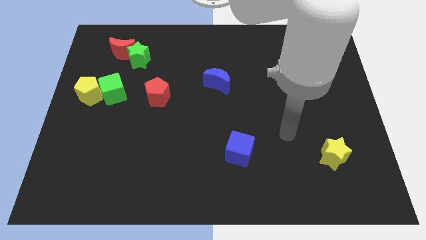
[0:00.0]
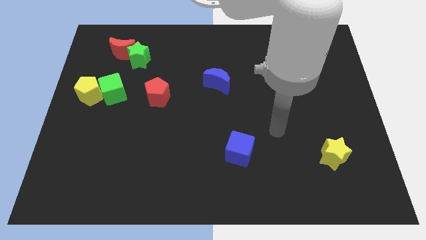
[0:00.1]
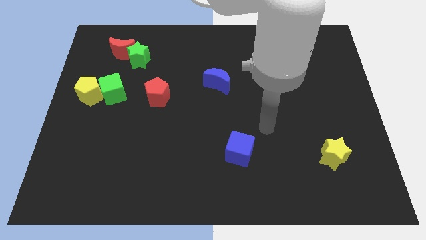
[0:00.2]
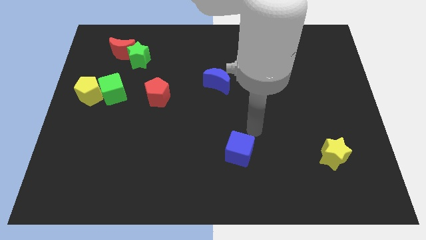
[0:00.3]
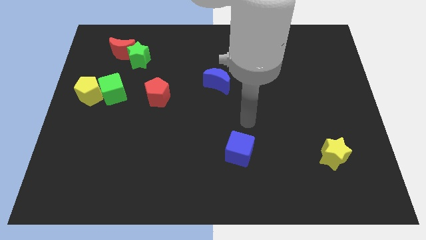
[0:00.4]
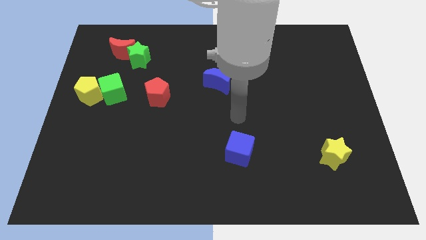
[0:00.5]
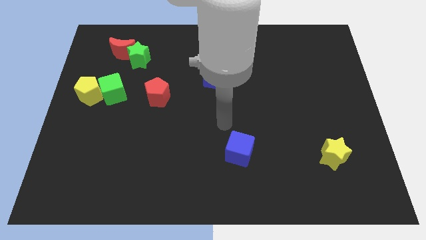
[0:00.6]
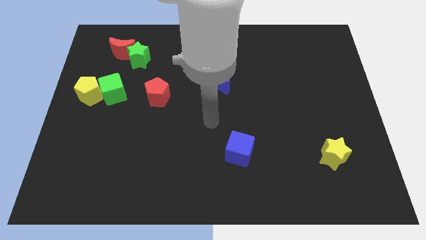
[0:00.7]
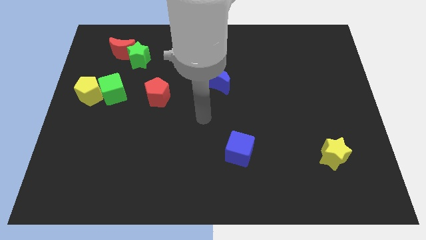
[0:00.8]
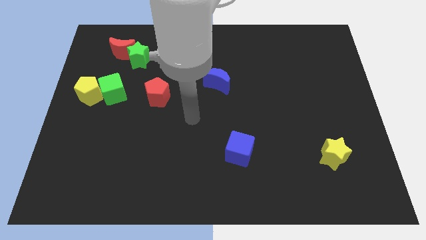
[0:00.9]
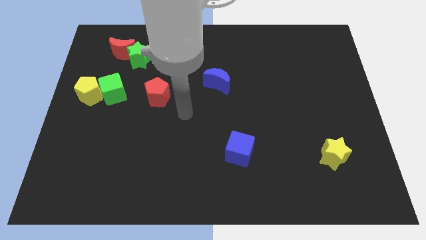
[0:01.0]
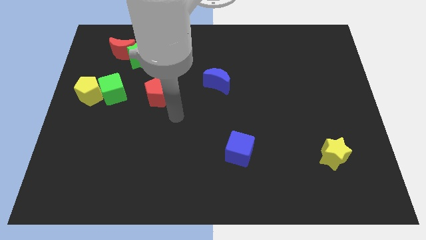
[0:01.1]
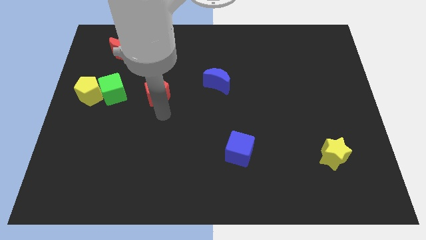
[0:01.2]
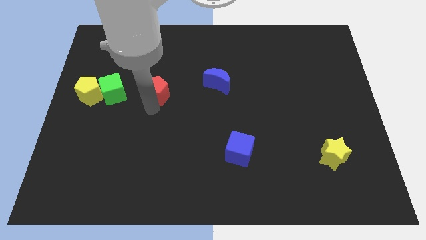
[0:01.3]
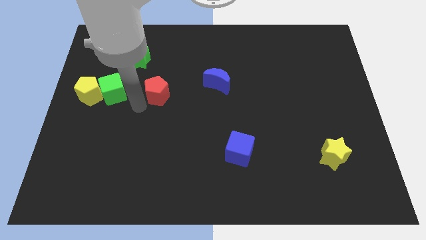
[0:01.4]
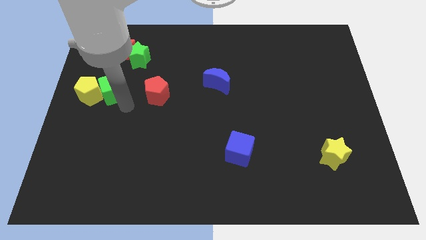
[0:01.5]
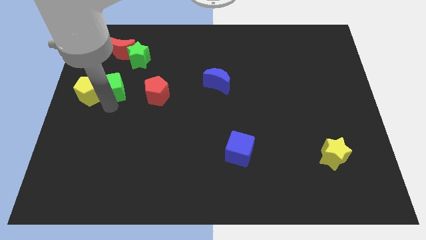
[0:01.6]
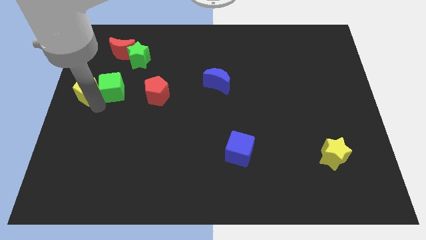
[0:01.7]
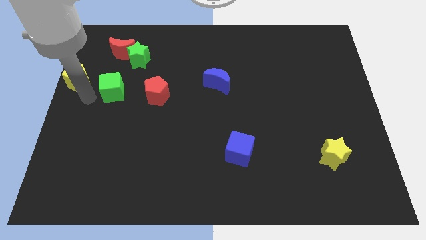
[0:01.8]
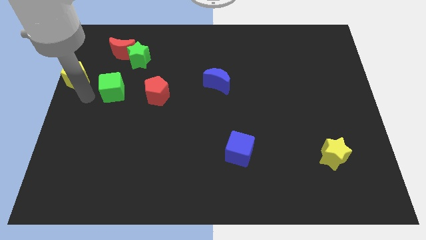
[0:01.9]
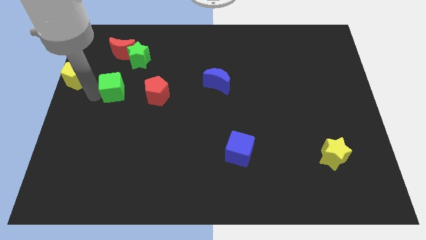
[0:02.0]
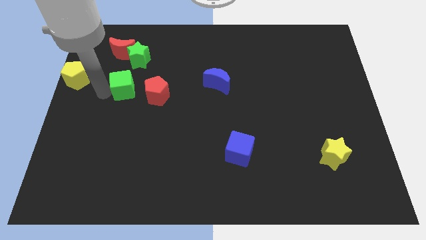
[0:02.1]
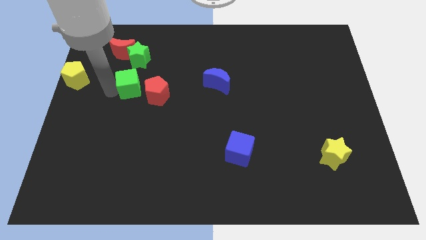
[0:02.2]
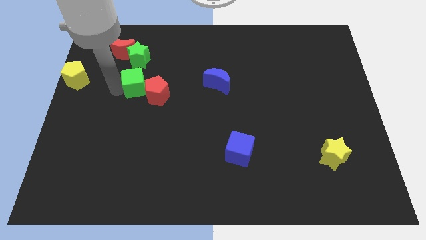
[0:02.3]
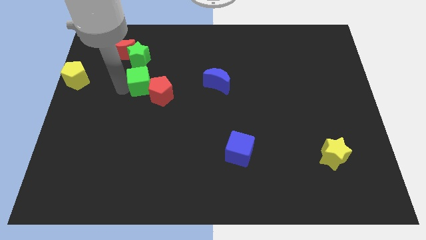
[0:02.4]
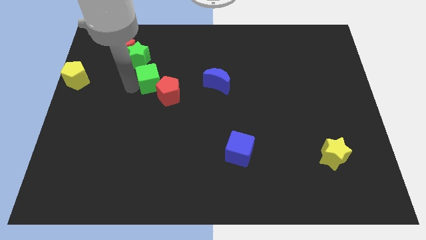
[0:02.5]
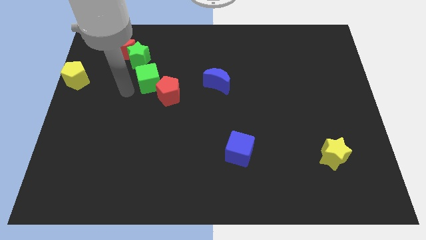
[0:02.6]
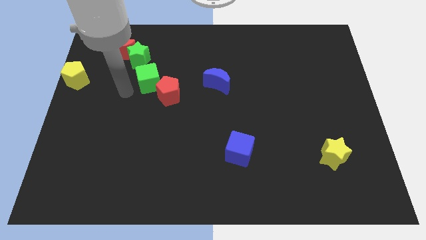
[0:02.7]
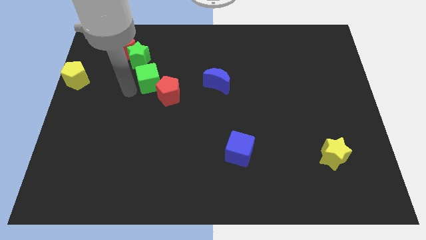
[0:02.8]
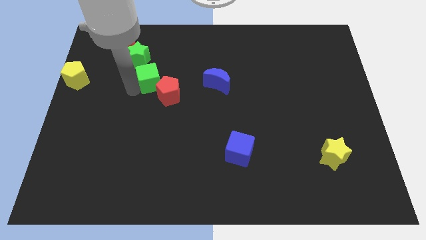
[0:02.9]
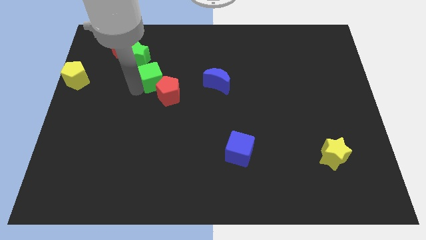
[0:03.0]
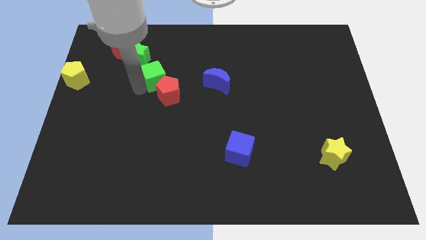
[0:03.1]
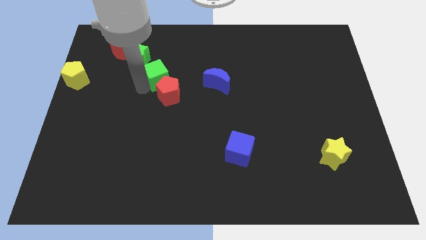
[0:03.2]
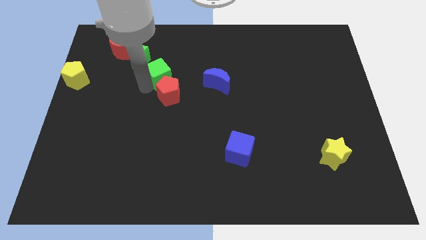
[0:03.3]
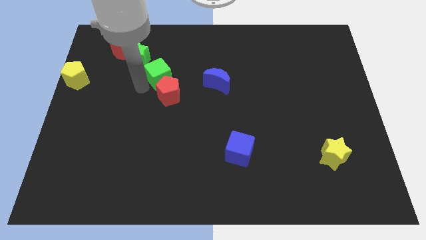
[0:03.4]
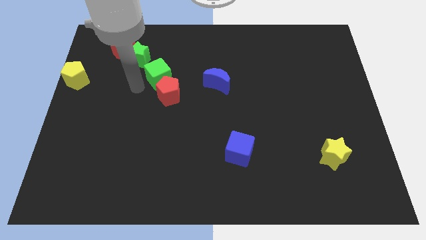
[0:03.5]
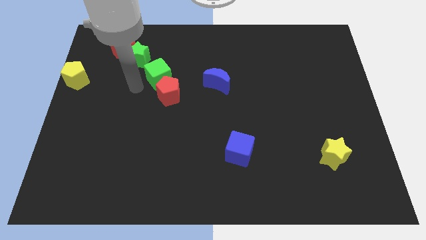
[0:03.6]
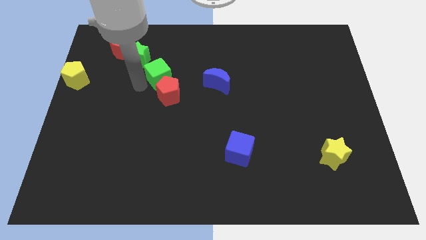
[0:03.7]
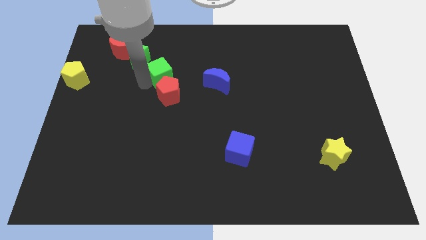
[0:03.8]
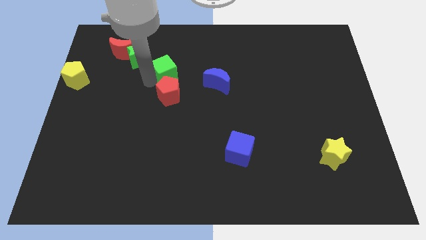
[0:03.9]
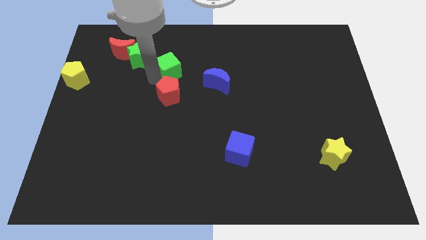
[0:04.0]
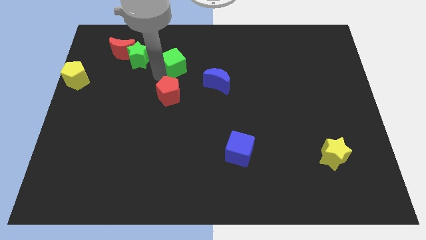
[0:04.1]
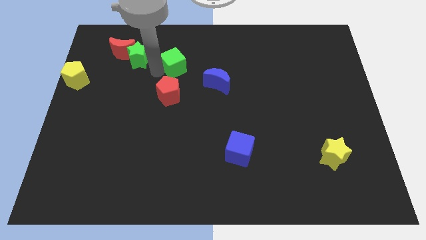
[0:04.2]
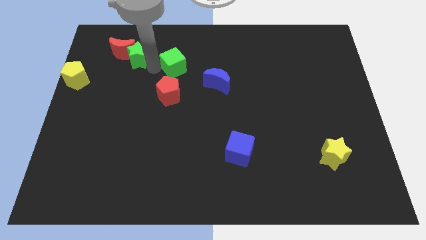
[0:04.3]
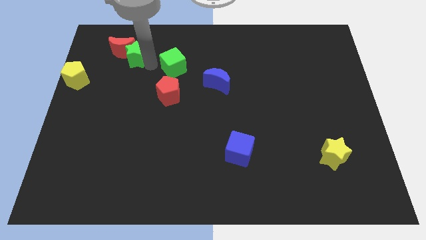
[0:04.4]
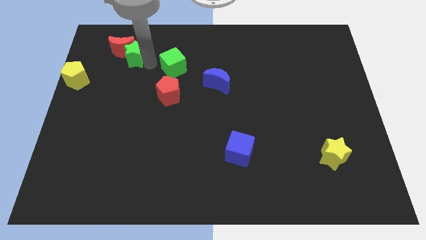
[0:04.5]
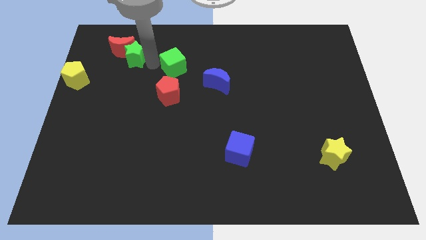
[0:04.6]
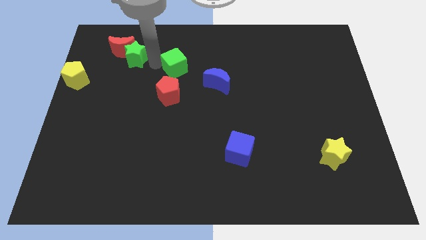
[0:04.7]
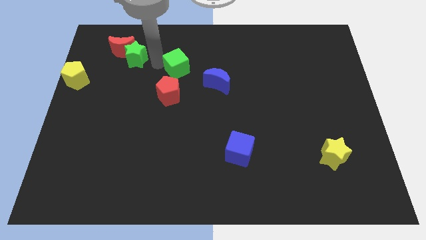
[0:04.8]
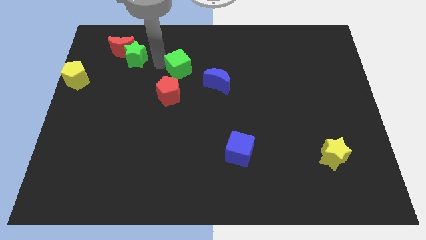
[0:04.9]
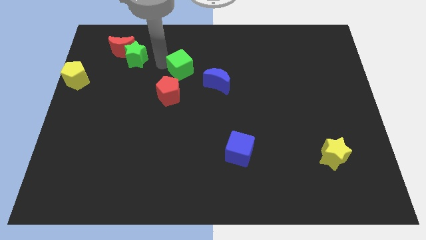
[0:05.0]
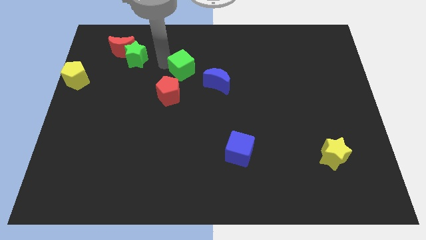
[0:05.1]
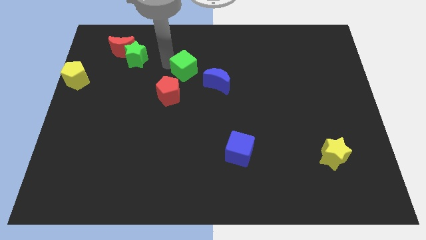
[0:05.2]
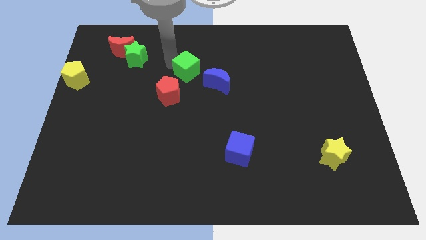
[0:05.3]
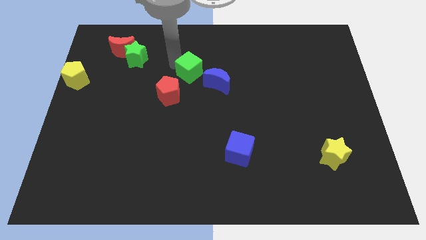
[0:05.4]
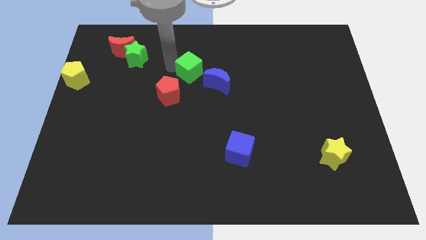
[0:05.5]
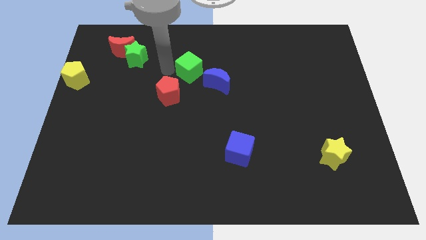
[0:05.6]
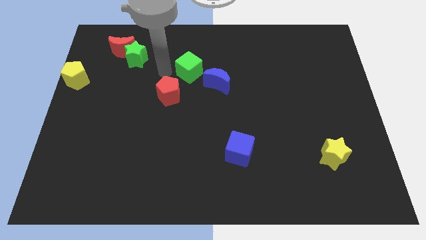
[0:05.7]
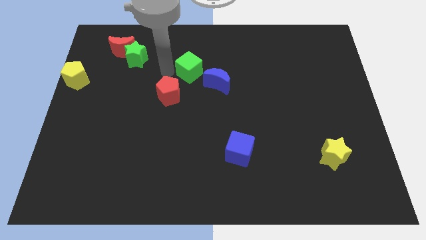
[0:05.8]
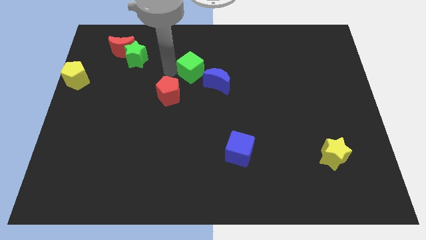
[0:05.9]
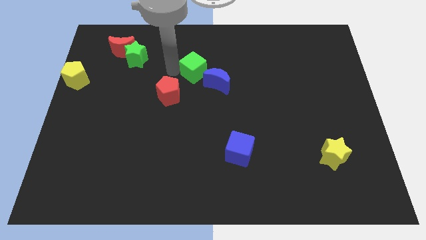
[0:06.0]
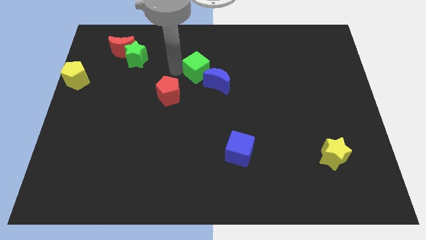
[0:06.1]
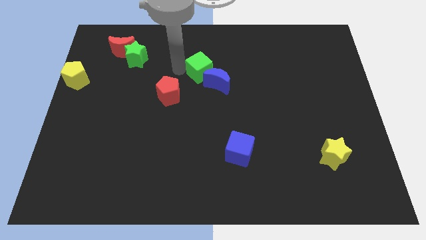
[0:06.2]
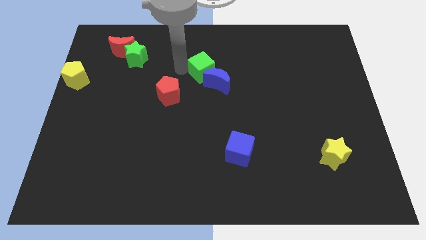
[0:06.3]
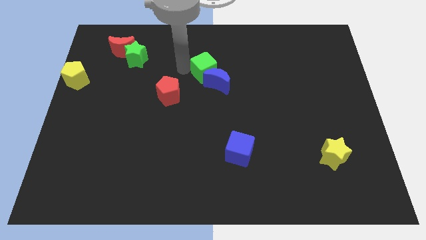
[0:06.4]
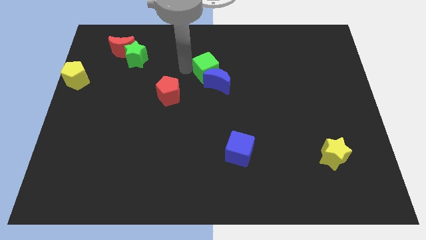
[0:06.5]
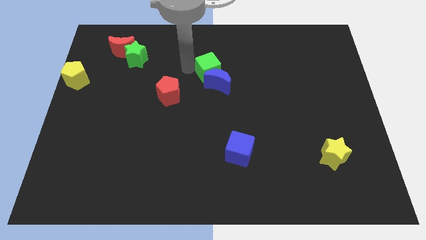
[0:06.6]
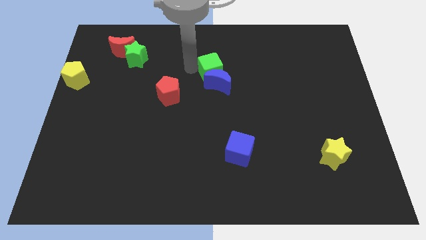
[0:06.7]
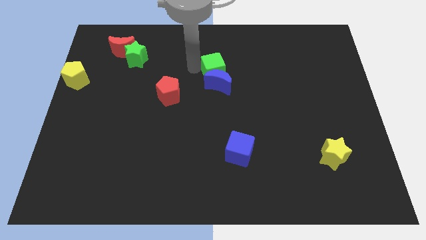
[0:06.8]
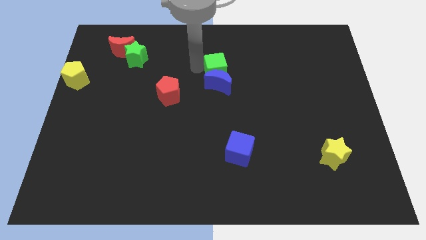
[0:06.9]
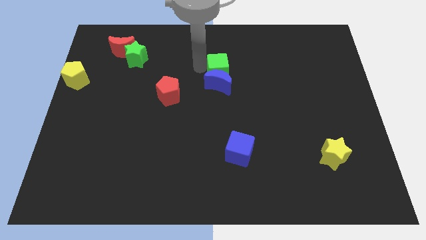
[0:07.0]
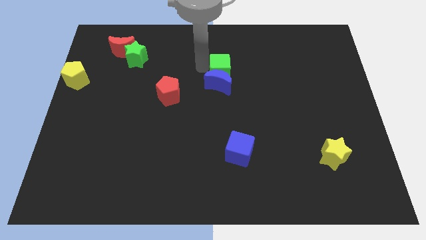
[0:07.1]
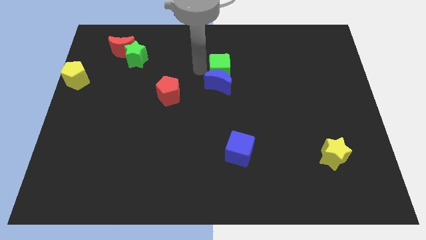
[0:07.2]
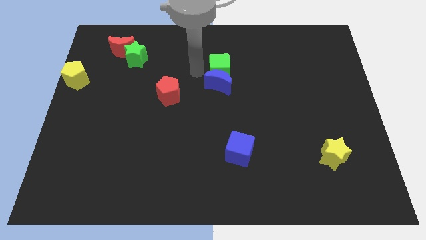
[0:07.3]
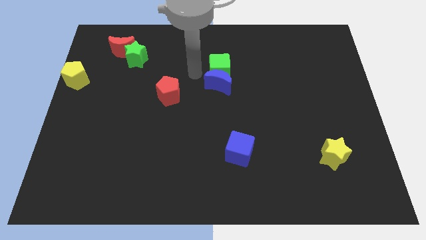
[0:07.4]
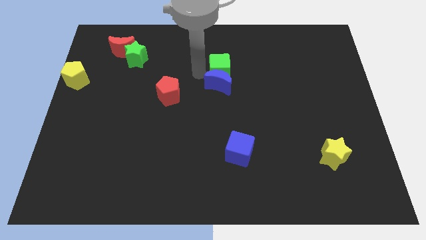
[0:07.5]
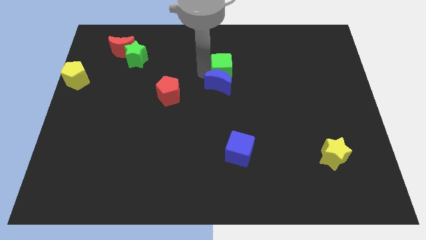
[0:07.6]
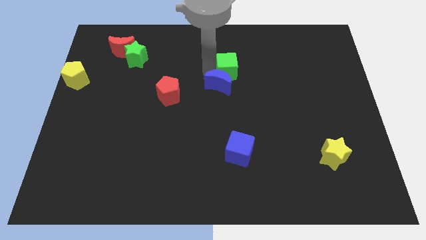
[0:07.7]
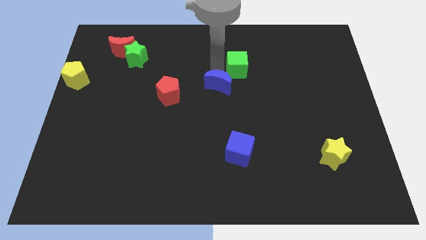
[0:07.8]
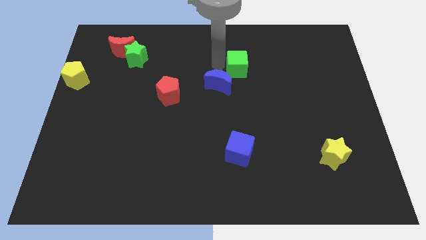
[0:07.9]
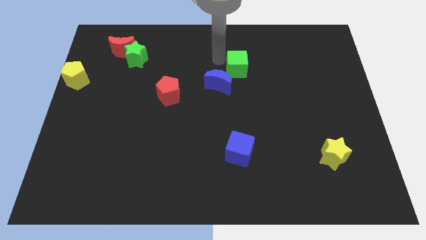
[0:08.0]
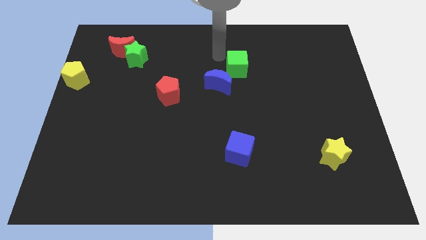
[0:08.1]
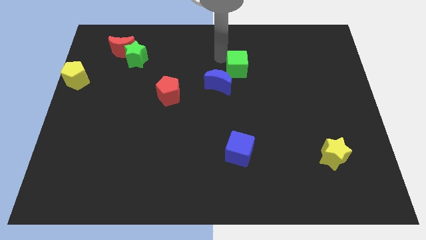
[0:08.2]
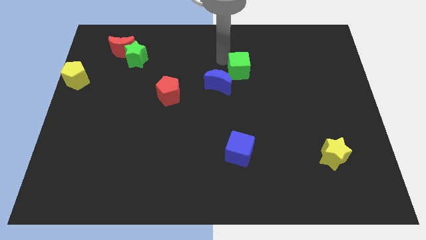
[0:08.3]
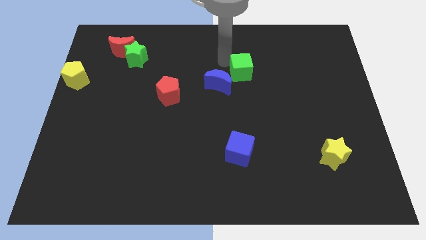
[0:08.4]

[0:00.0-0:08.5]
move the green cube to the right of the blue moon
